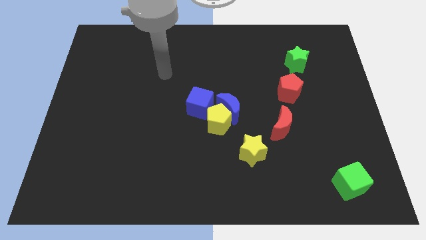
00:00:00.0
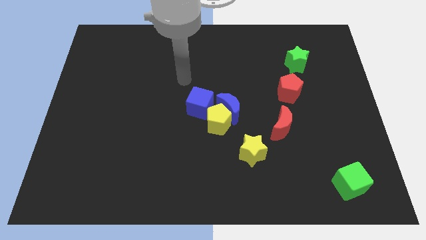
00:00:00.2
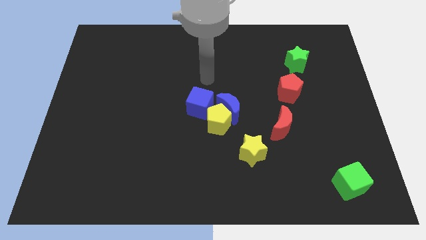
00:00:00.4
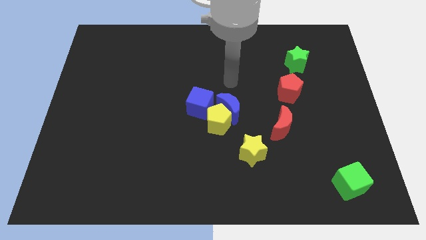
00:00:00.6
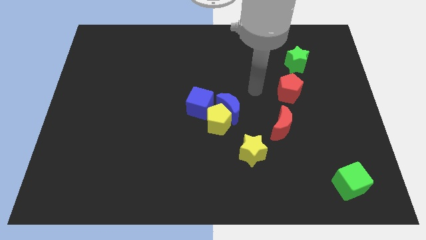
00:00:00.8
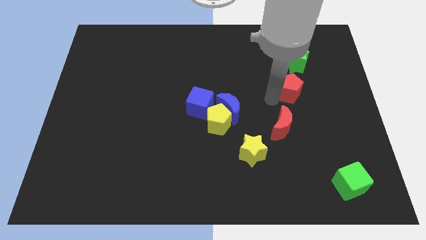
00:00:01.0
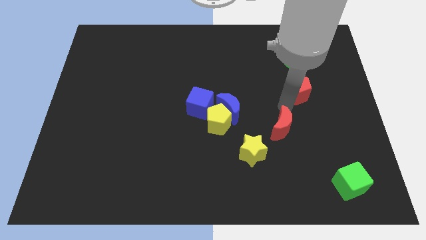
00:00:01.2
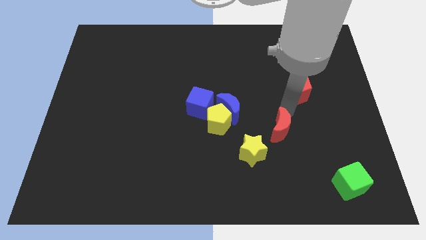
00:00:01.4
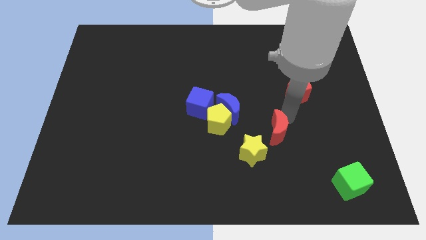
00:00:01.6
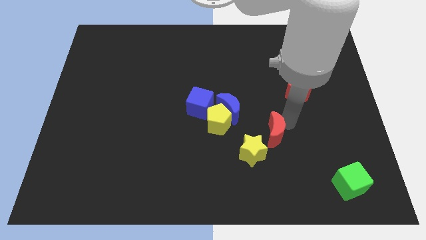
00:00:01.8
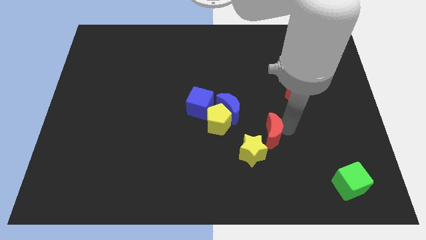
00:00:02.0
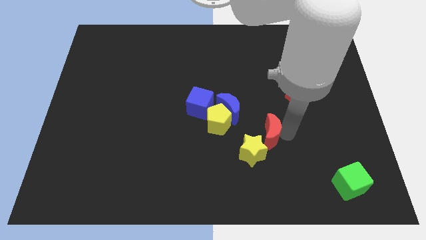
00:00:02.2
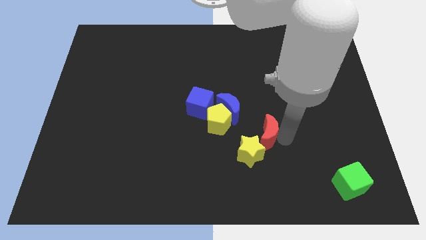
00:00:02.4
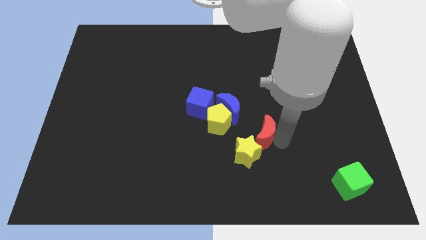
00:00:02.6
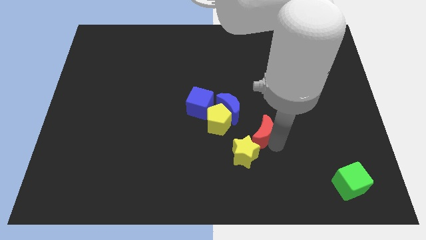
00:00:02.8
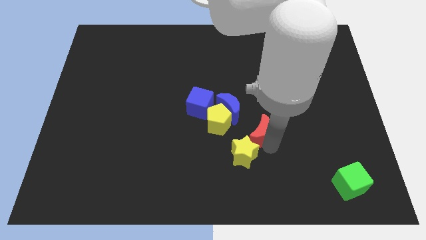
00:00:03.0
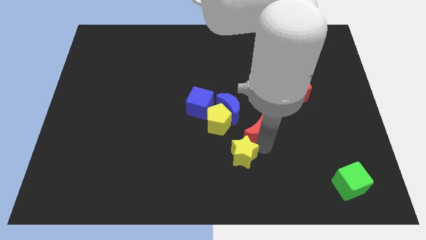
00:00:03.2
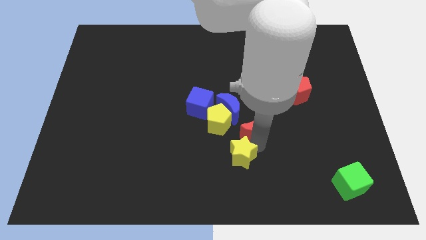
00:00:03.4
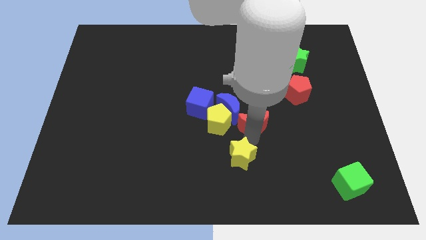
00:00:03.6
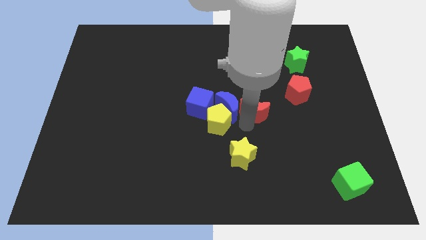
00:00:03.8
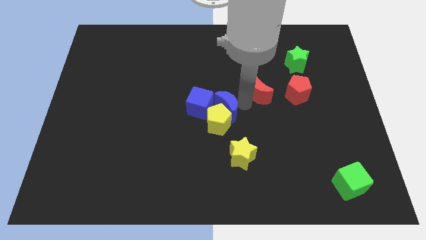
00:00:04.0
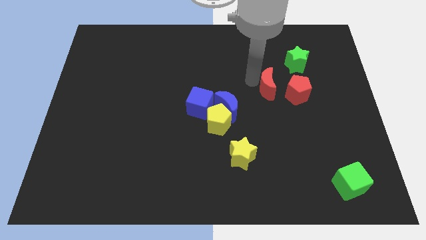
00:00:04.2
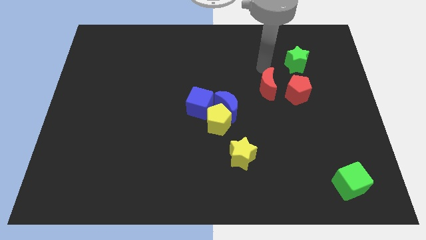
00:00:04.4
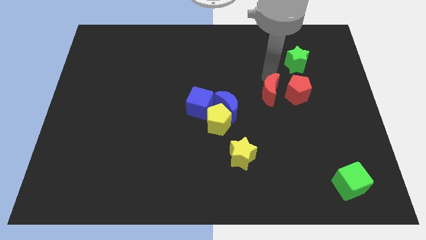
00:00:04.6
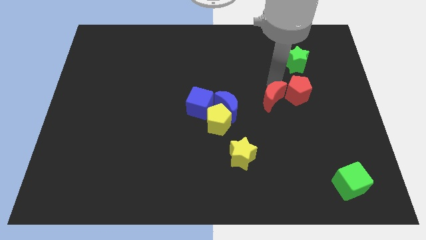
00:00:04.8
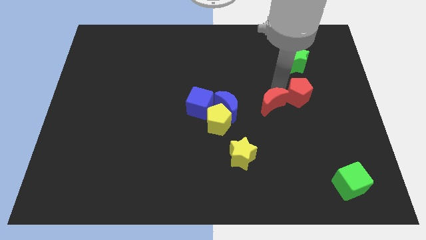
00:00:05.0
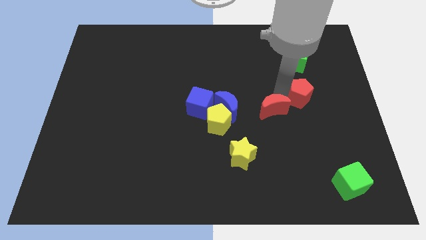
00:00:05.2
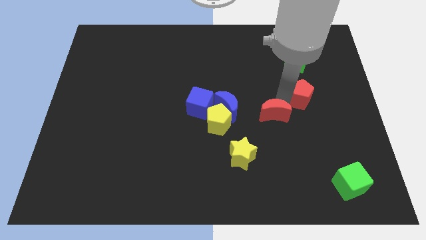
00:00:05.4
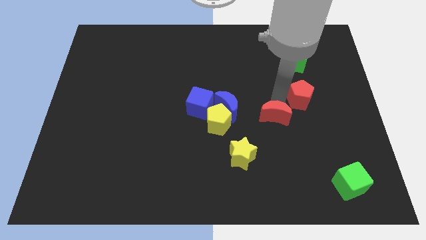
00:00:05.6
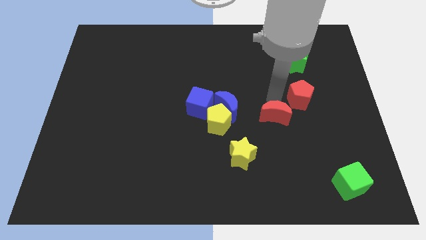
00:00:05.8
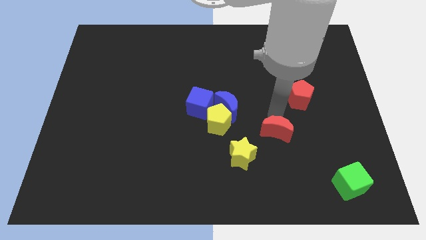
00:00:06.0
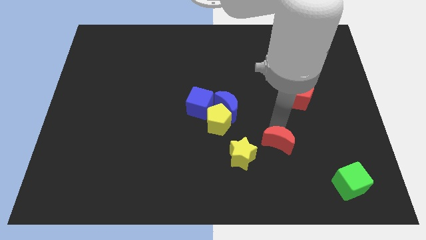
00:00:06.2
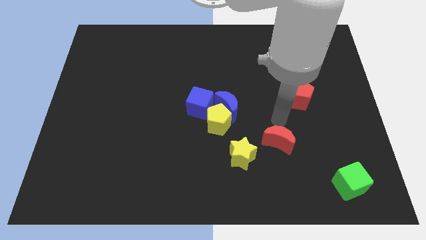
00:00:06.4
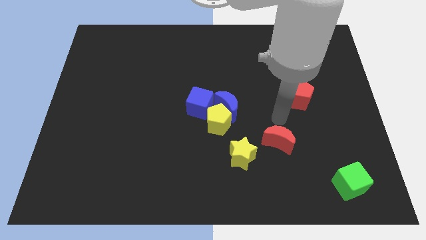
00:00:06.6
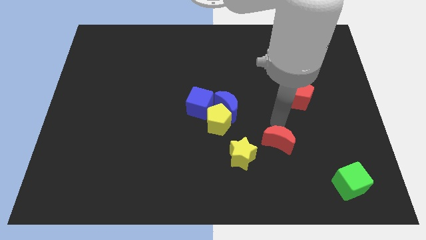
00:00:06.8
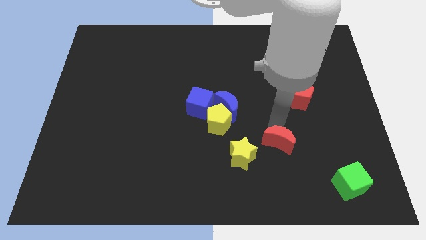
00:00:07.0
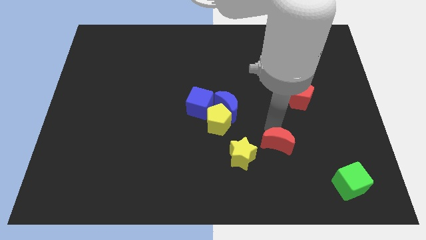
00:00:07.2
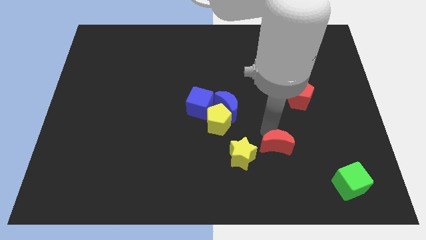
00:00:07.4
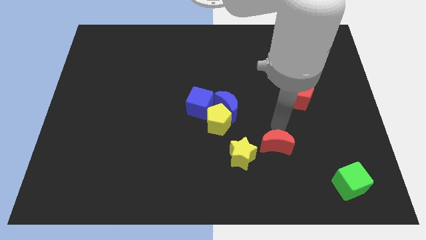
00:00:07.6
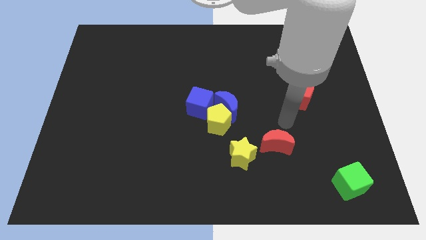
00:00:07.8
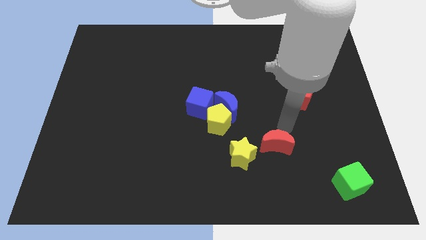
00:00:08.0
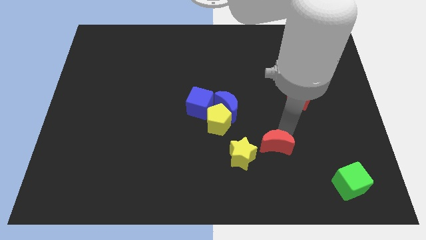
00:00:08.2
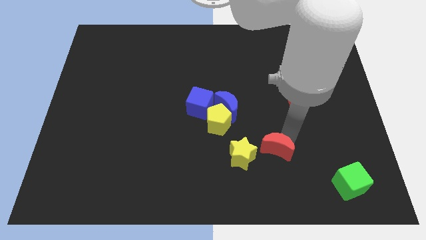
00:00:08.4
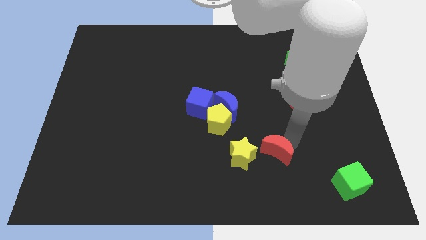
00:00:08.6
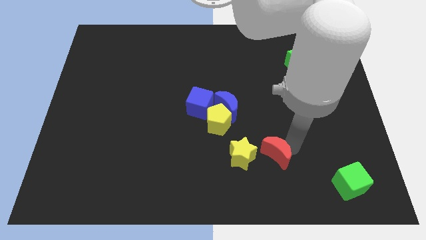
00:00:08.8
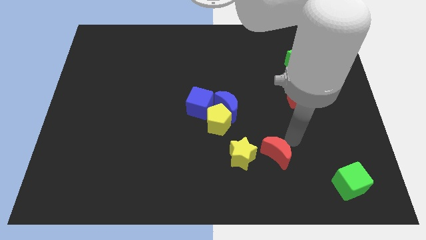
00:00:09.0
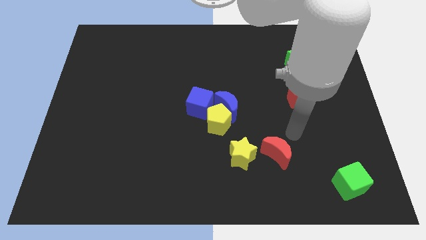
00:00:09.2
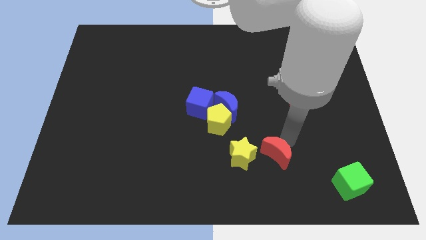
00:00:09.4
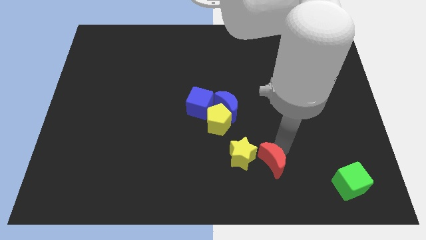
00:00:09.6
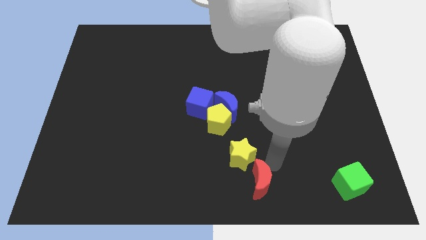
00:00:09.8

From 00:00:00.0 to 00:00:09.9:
move the red moon to the bottom side

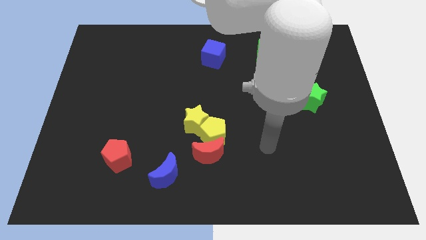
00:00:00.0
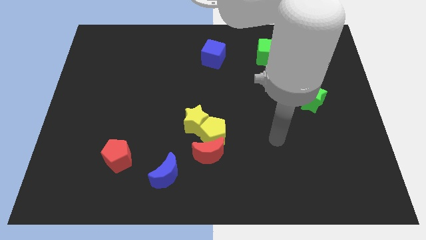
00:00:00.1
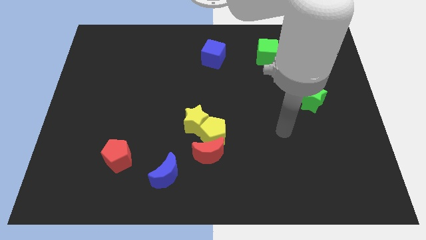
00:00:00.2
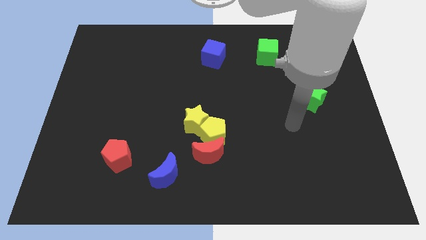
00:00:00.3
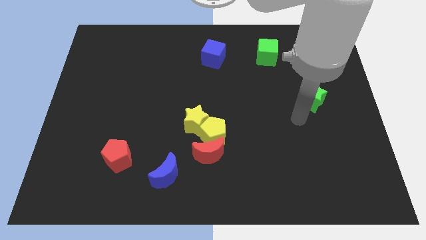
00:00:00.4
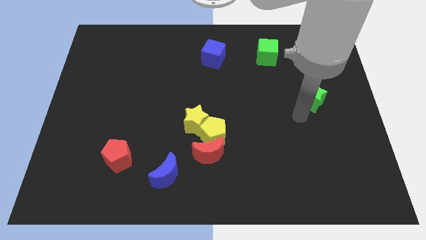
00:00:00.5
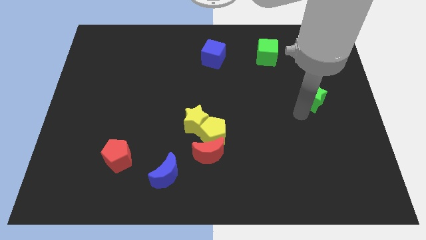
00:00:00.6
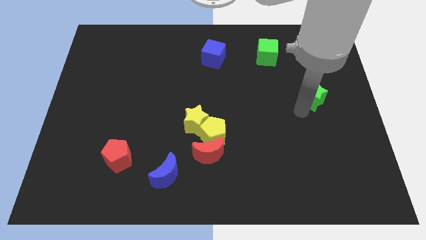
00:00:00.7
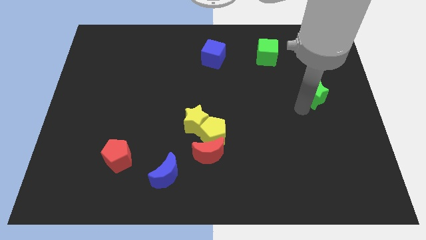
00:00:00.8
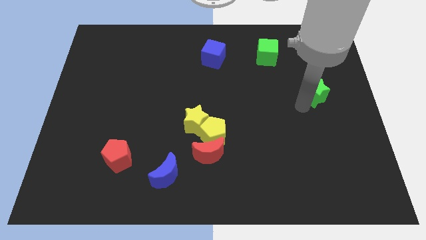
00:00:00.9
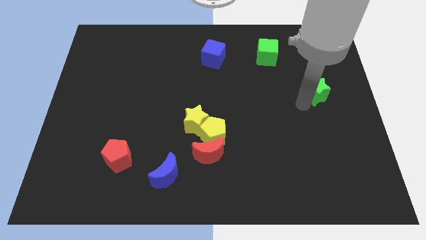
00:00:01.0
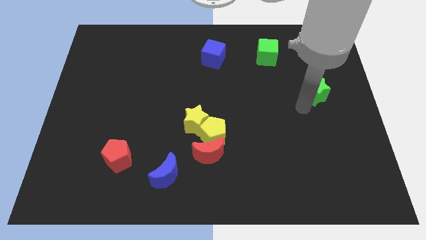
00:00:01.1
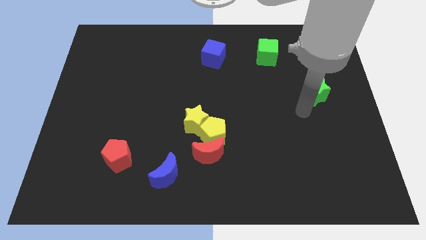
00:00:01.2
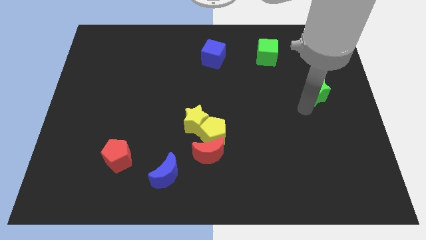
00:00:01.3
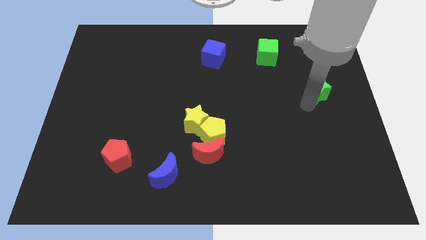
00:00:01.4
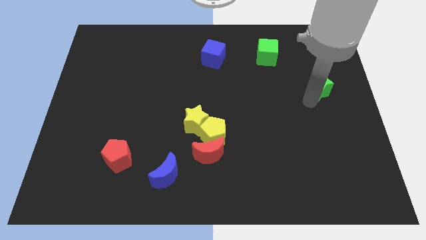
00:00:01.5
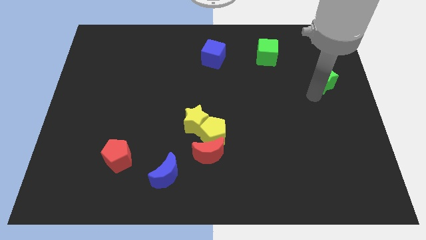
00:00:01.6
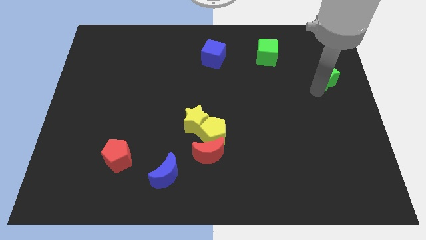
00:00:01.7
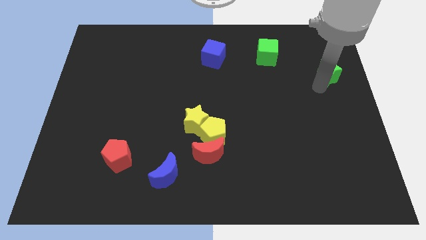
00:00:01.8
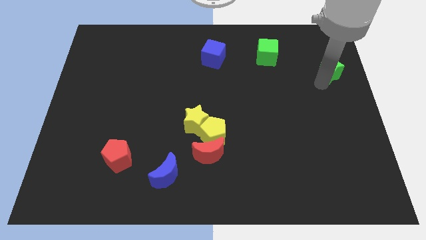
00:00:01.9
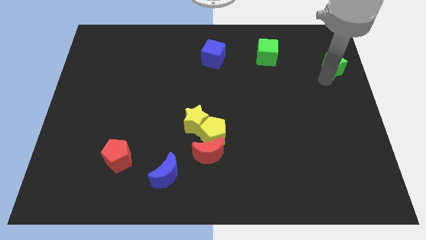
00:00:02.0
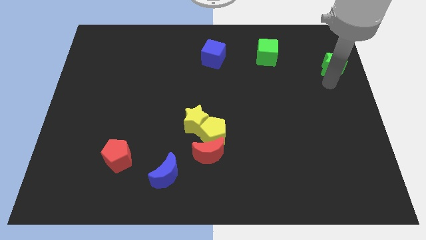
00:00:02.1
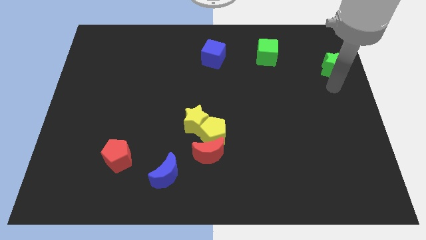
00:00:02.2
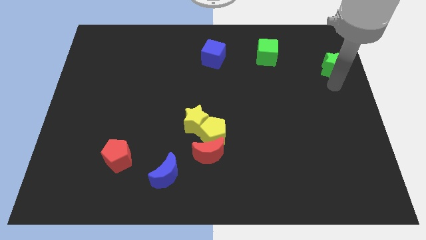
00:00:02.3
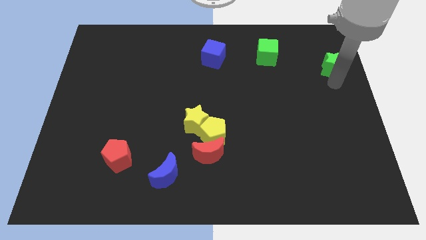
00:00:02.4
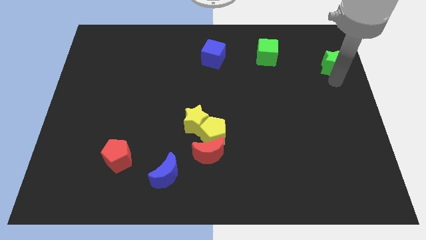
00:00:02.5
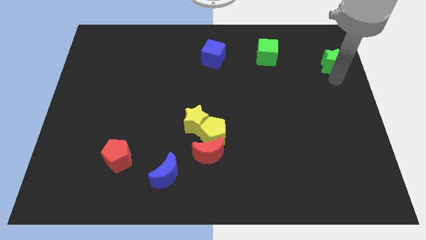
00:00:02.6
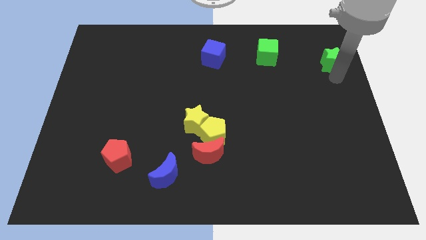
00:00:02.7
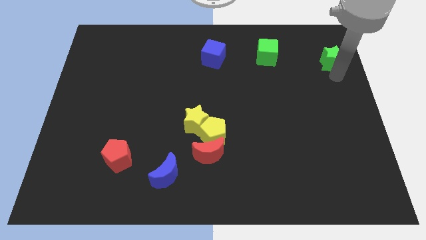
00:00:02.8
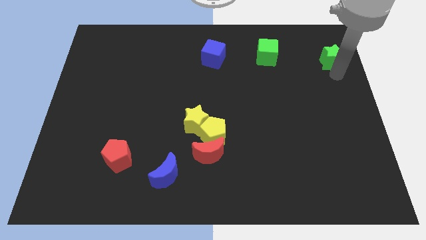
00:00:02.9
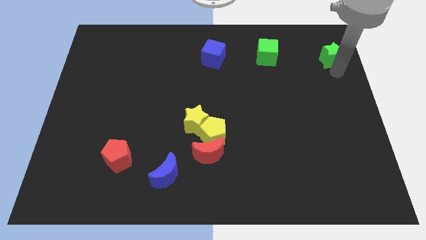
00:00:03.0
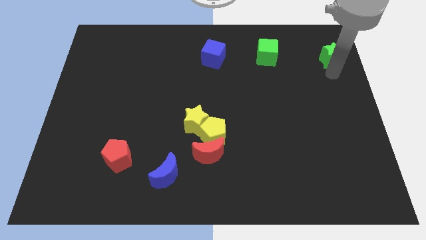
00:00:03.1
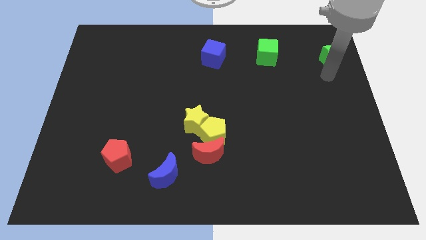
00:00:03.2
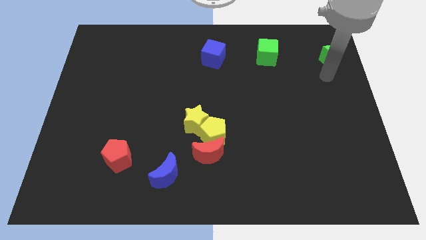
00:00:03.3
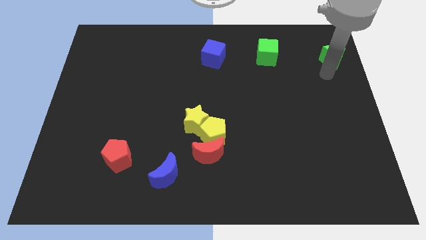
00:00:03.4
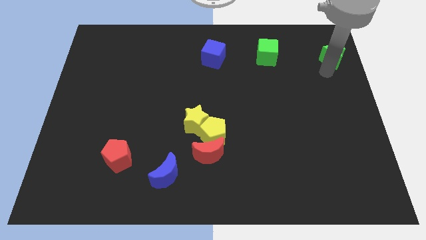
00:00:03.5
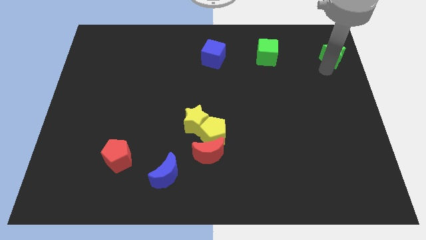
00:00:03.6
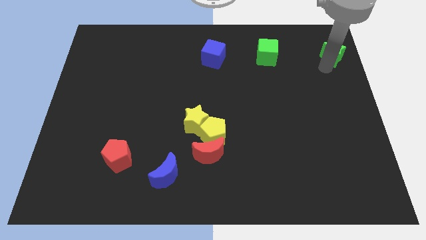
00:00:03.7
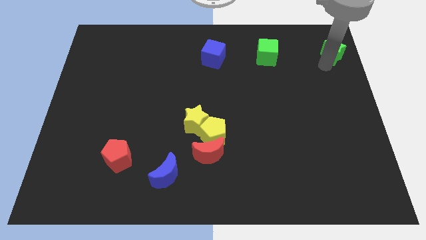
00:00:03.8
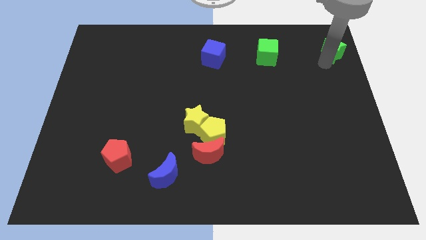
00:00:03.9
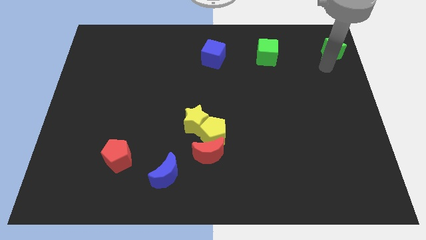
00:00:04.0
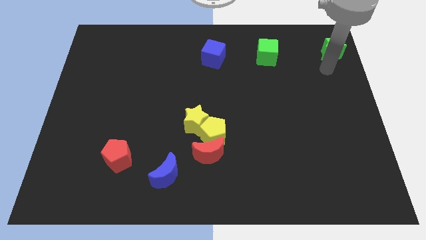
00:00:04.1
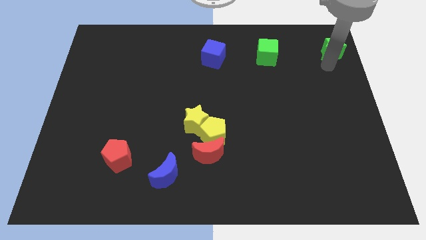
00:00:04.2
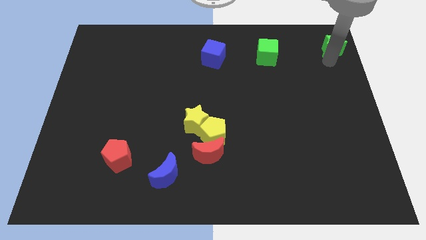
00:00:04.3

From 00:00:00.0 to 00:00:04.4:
push the green star to the upper right corner
